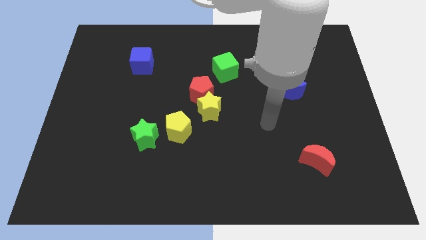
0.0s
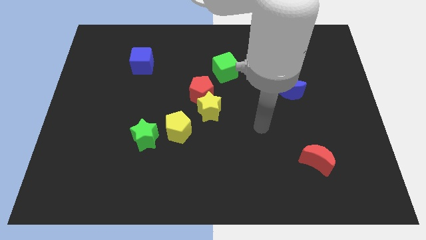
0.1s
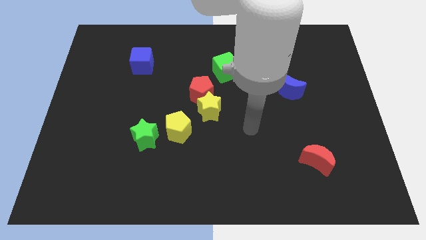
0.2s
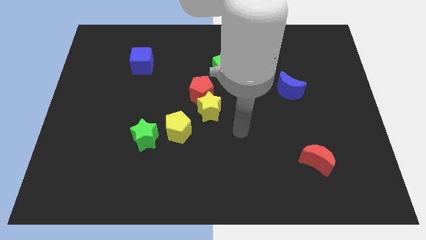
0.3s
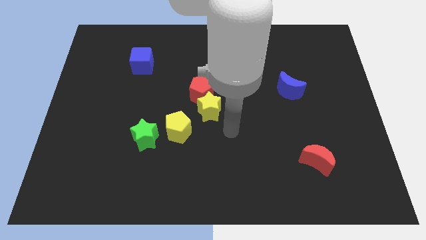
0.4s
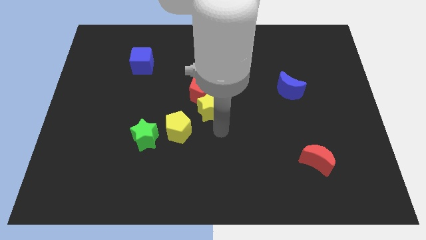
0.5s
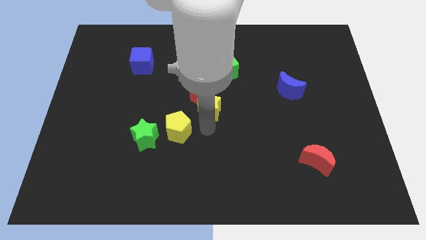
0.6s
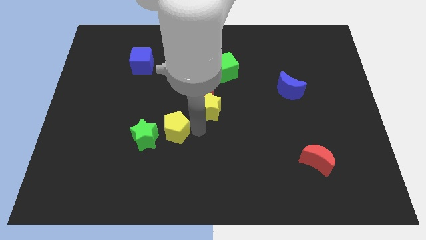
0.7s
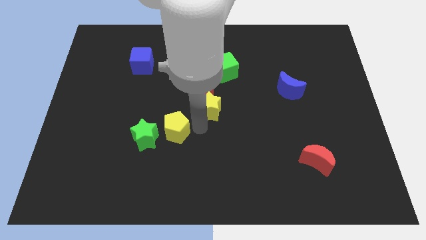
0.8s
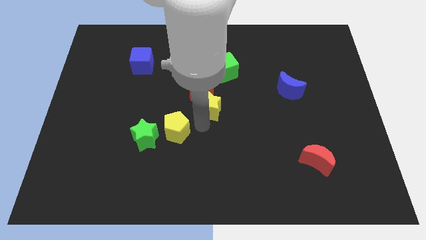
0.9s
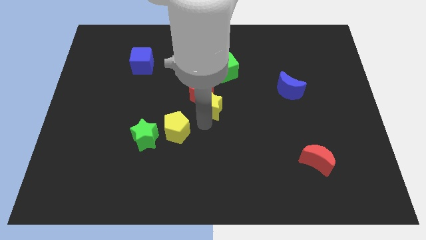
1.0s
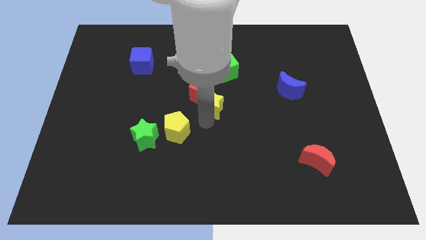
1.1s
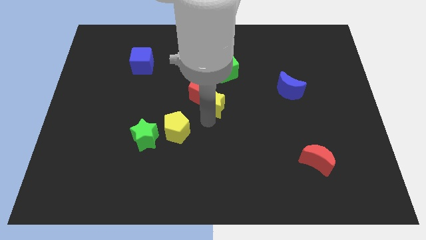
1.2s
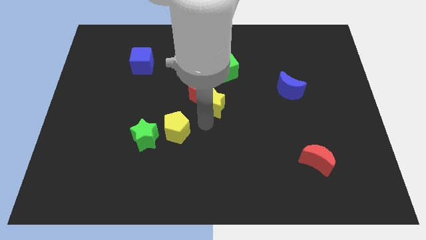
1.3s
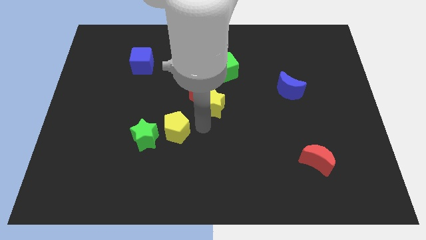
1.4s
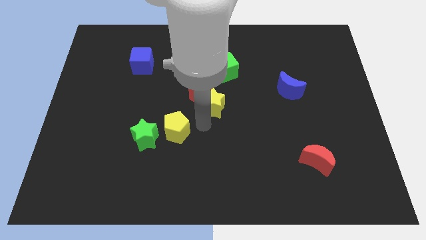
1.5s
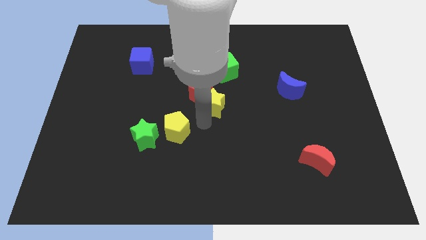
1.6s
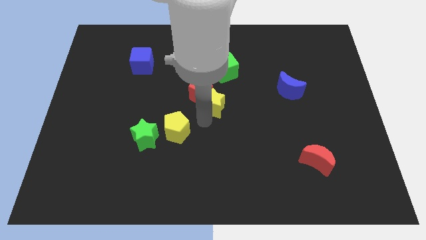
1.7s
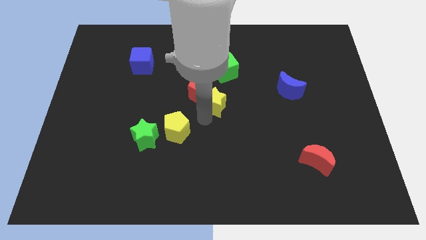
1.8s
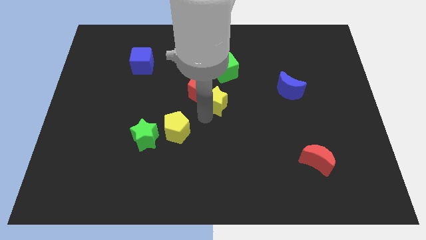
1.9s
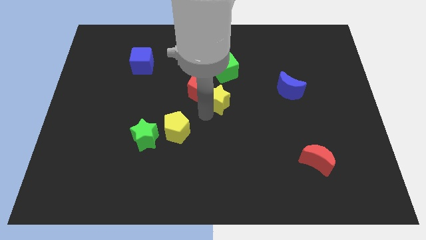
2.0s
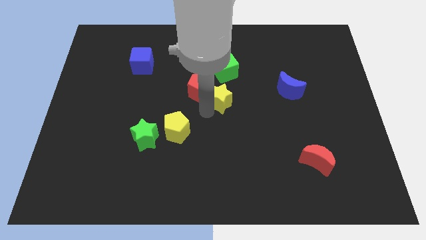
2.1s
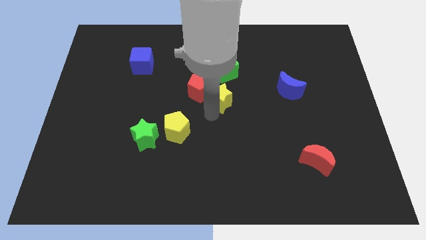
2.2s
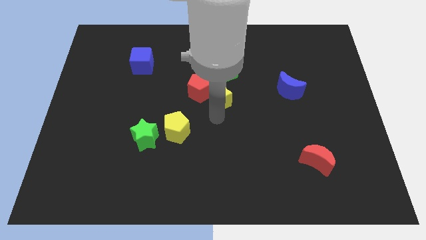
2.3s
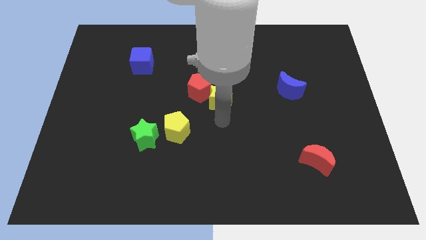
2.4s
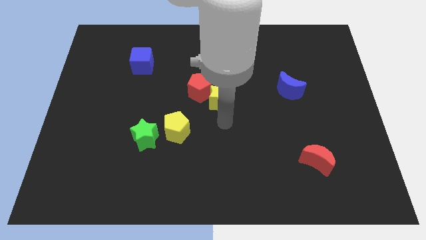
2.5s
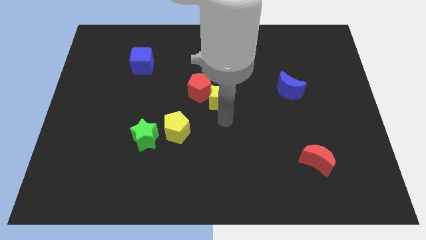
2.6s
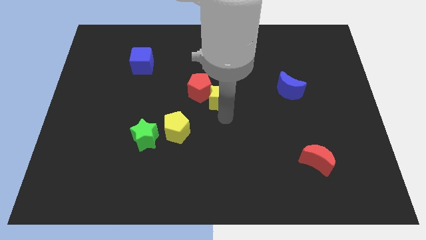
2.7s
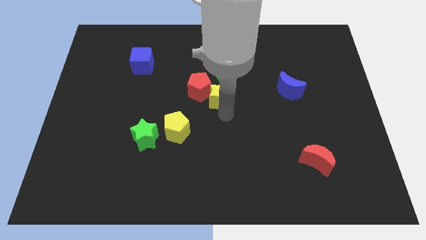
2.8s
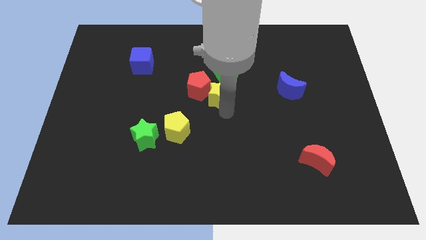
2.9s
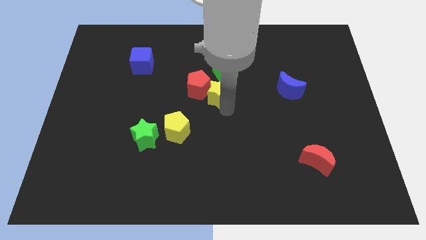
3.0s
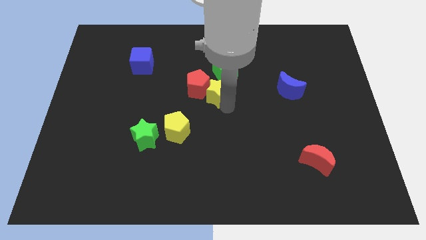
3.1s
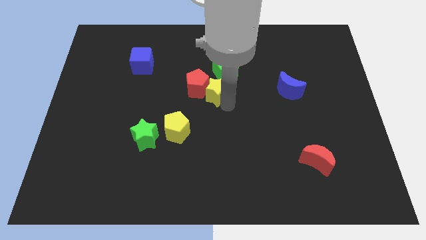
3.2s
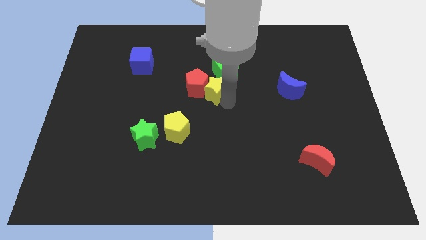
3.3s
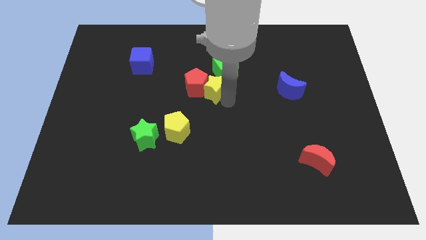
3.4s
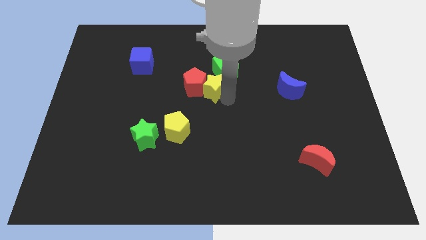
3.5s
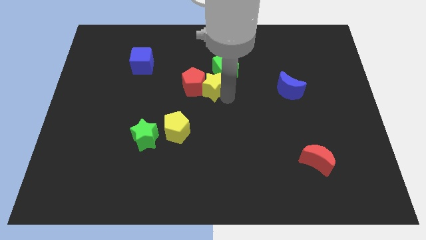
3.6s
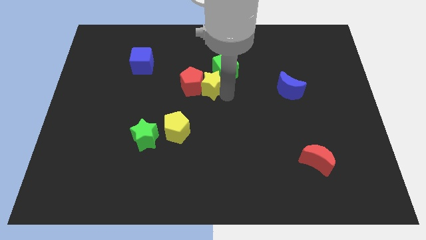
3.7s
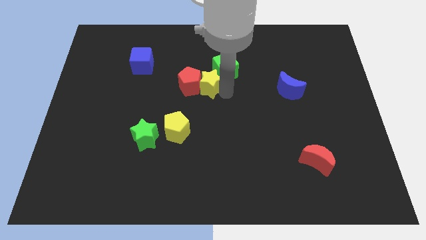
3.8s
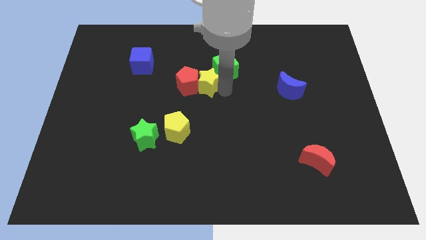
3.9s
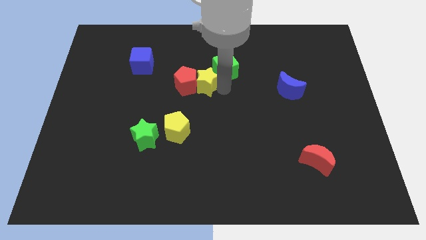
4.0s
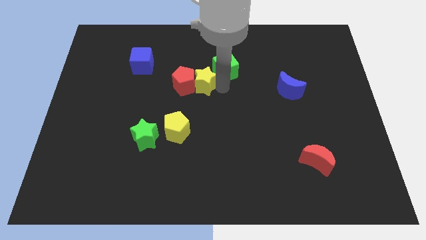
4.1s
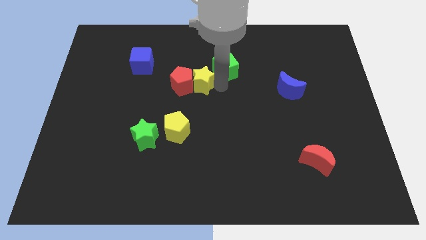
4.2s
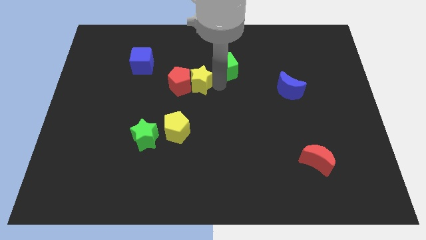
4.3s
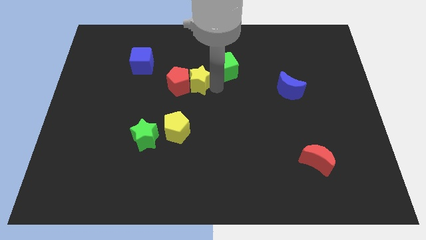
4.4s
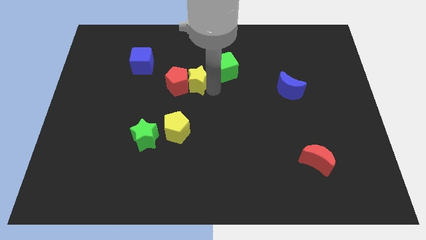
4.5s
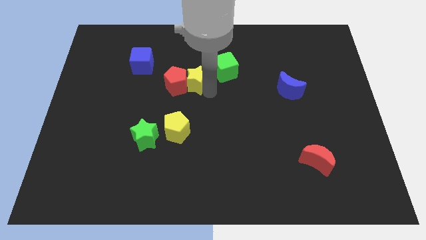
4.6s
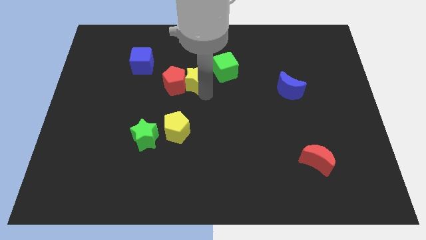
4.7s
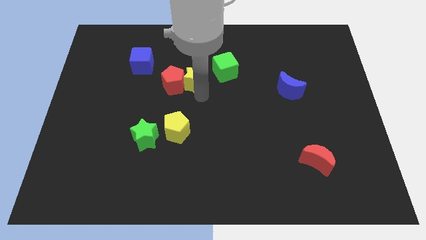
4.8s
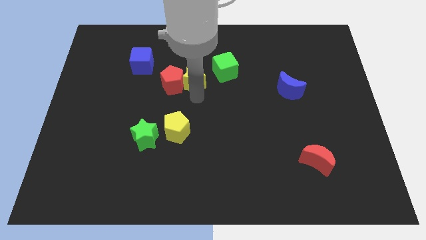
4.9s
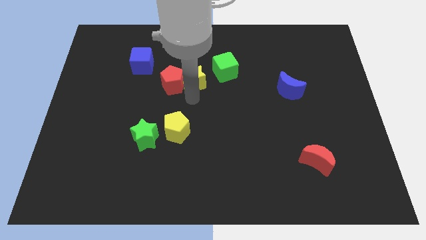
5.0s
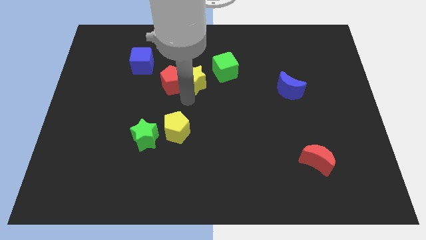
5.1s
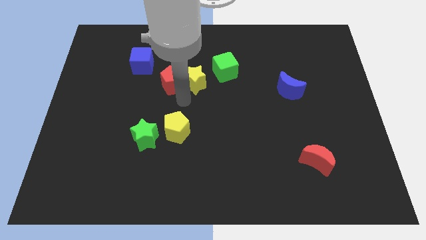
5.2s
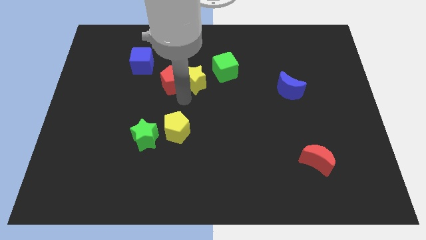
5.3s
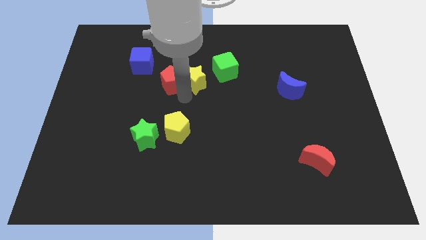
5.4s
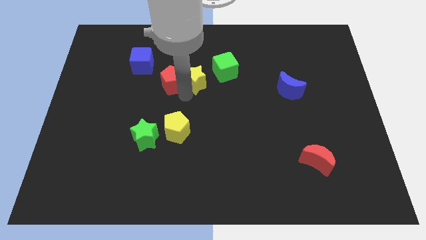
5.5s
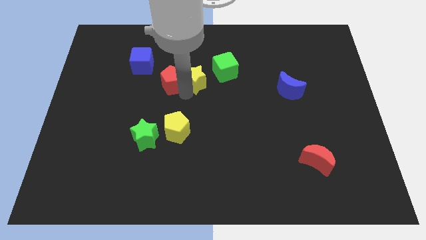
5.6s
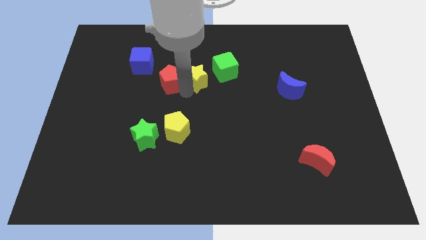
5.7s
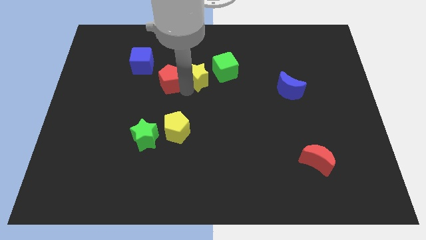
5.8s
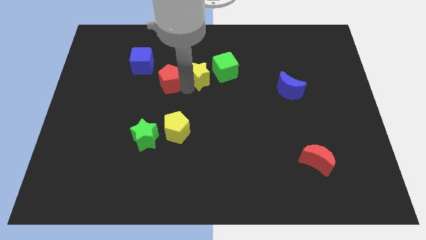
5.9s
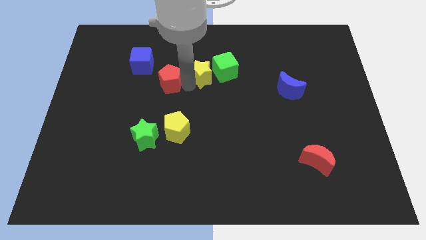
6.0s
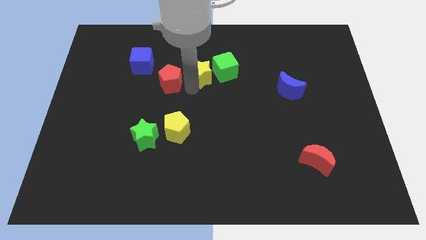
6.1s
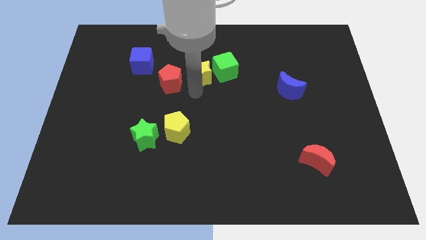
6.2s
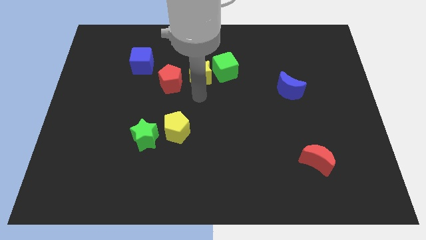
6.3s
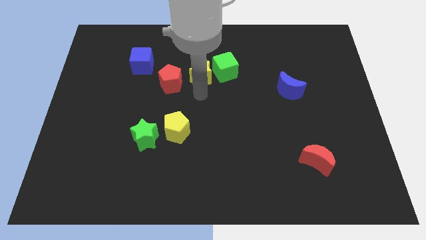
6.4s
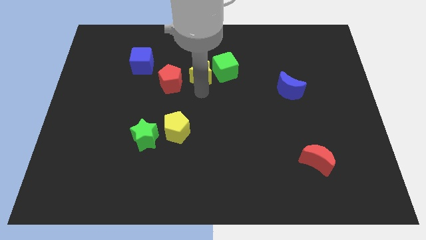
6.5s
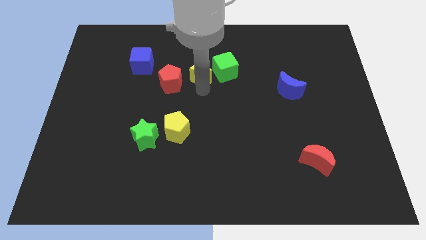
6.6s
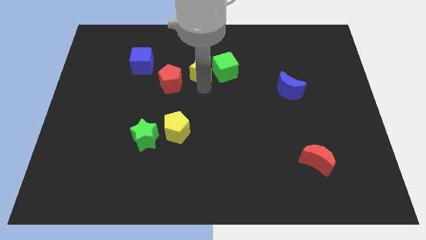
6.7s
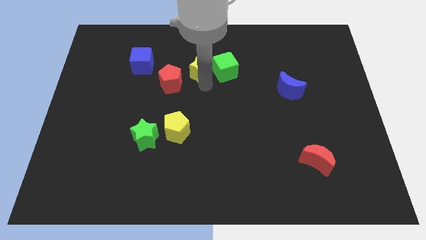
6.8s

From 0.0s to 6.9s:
push the yellow star diagonally up and to the left of the green cube

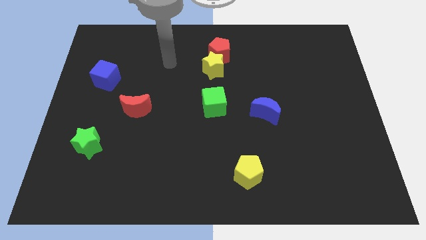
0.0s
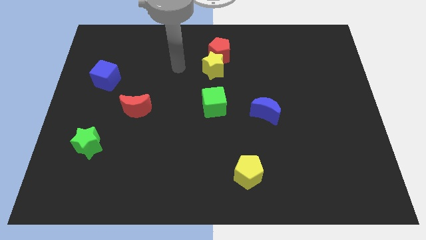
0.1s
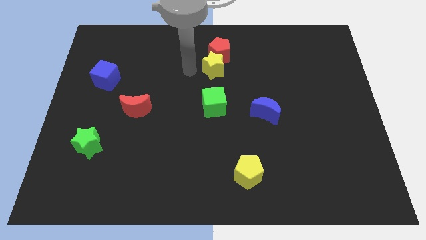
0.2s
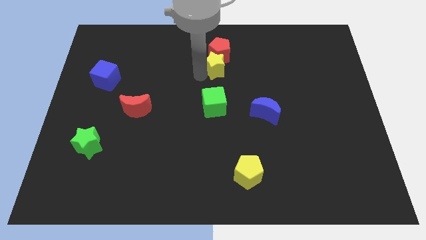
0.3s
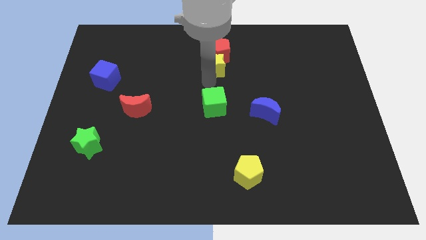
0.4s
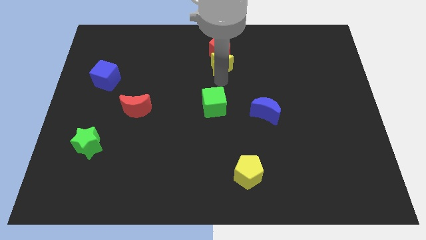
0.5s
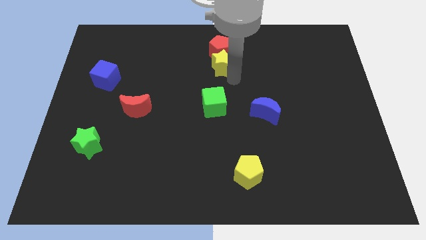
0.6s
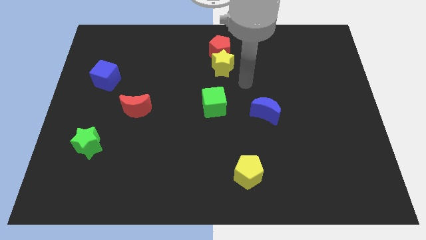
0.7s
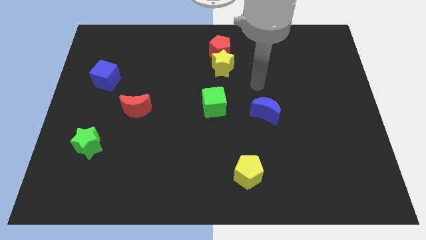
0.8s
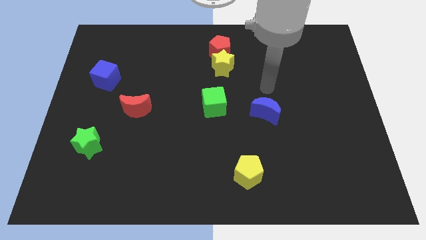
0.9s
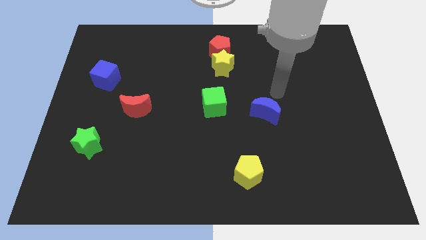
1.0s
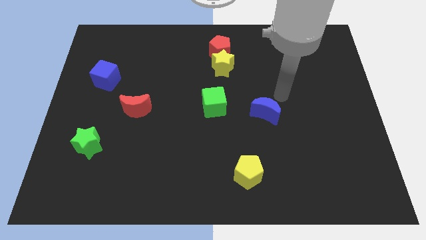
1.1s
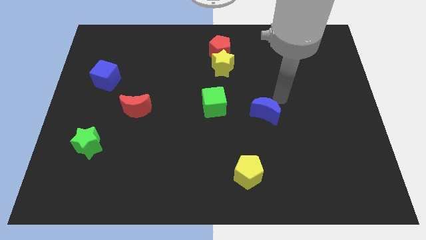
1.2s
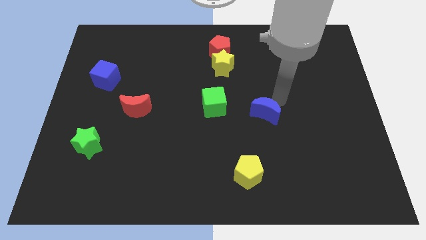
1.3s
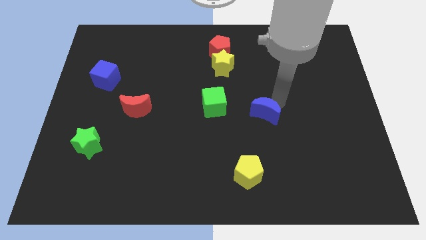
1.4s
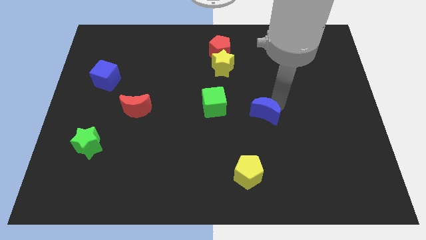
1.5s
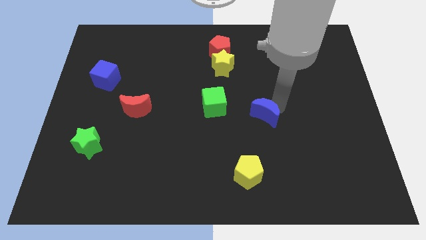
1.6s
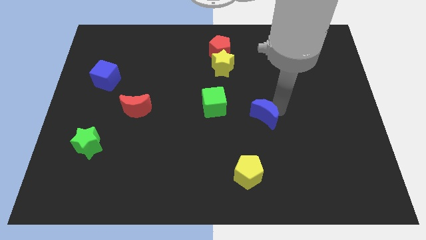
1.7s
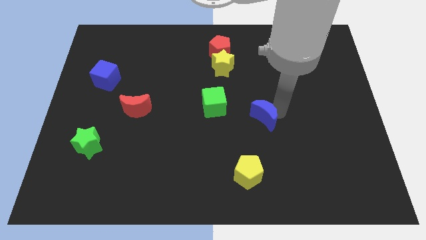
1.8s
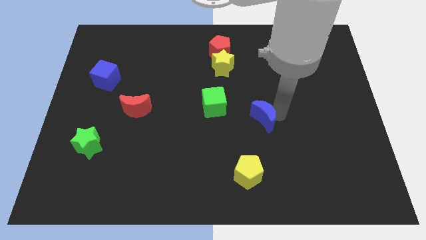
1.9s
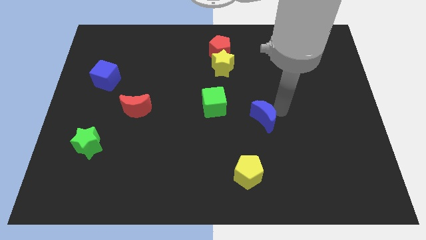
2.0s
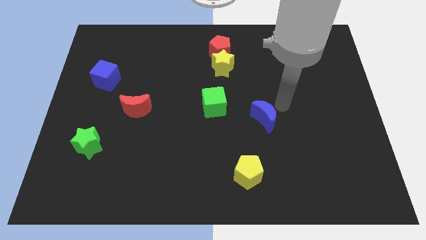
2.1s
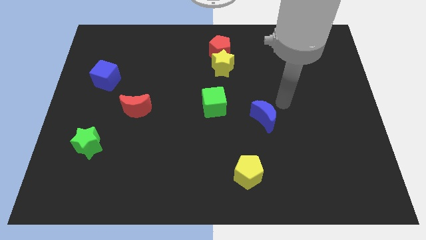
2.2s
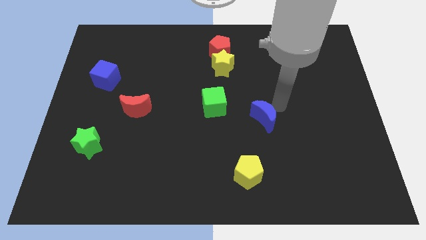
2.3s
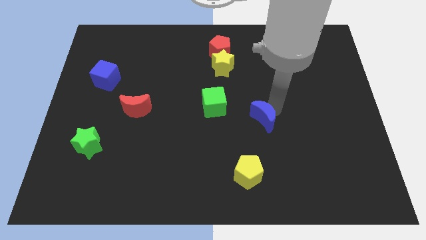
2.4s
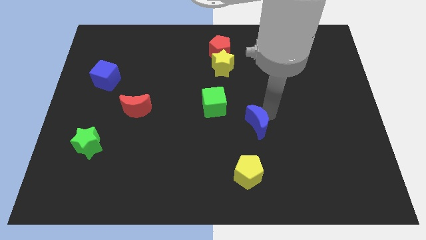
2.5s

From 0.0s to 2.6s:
put the blue moon to the top of the yellow pentagon
